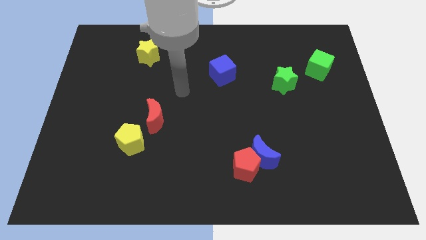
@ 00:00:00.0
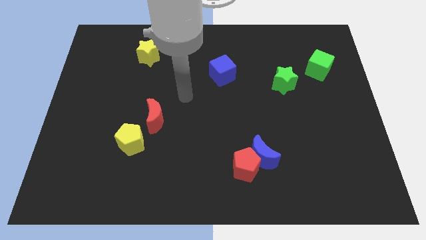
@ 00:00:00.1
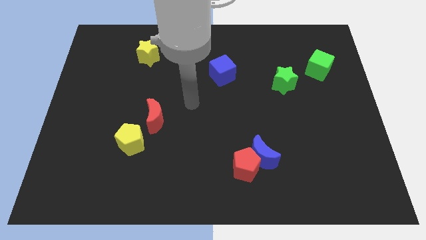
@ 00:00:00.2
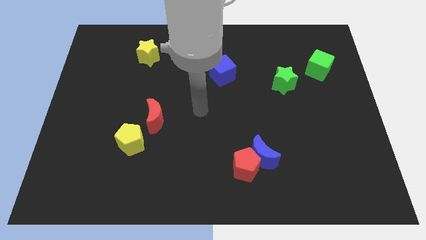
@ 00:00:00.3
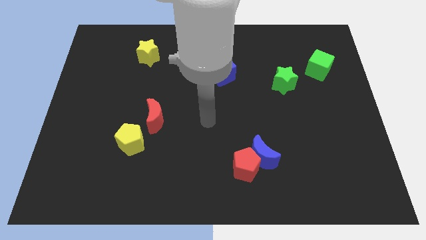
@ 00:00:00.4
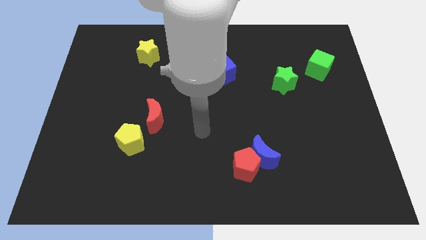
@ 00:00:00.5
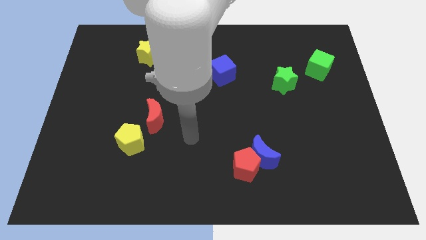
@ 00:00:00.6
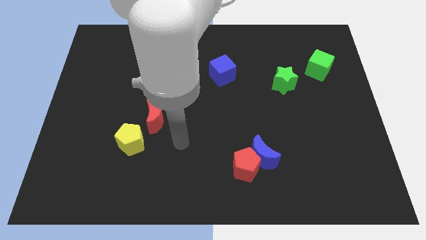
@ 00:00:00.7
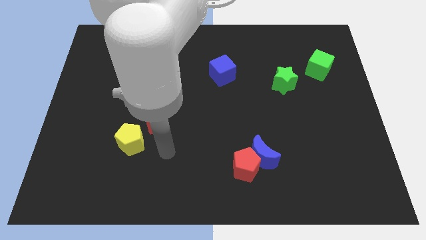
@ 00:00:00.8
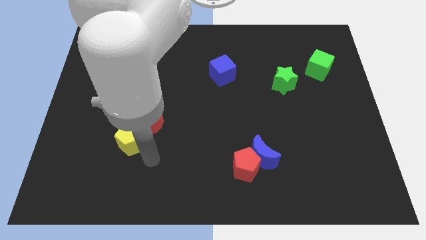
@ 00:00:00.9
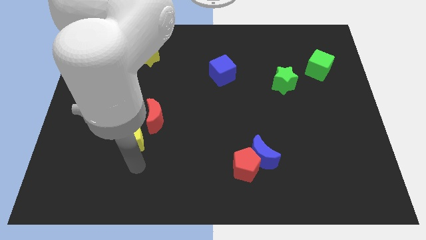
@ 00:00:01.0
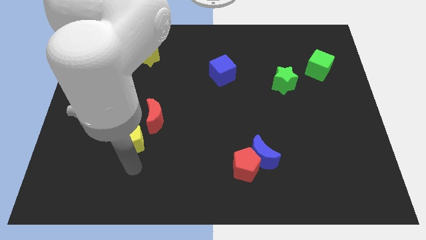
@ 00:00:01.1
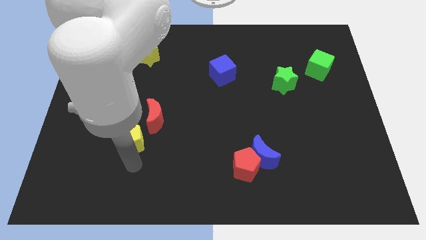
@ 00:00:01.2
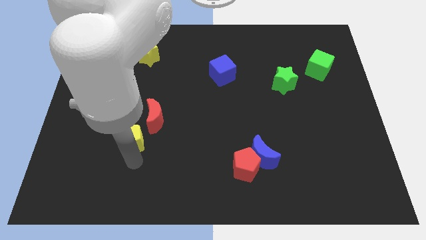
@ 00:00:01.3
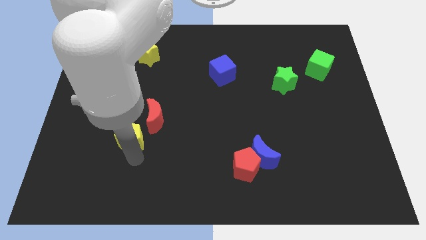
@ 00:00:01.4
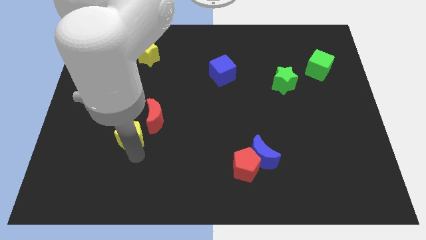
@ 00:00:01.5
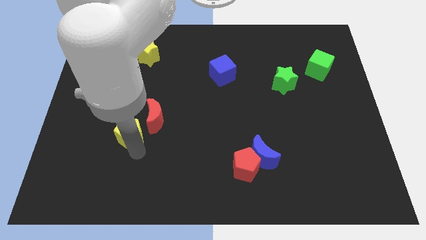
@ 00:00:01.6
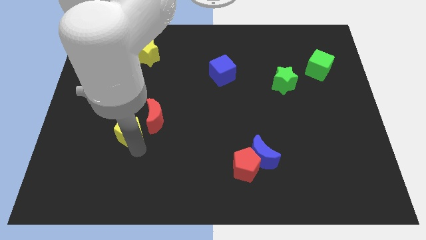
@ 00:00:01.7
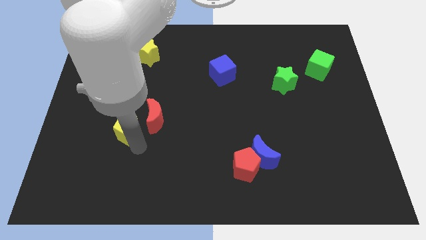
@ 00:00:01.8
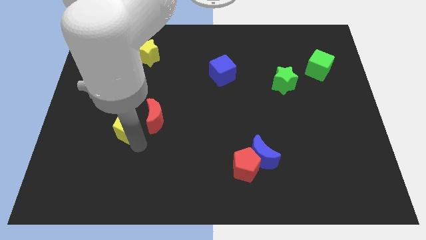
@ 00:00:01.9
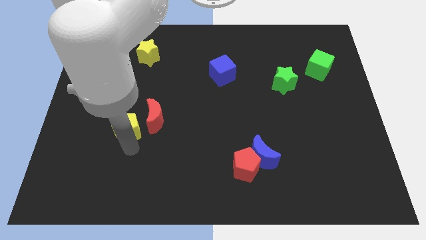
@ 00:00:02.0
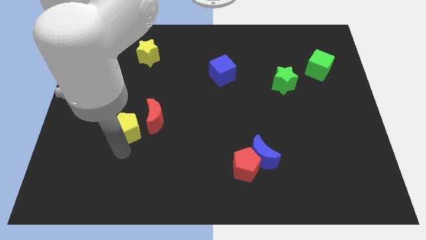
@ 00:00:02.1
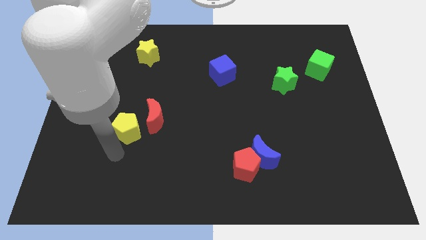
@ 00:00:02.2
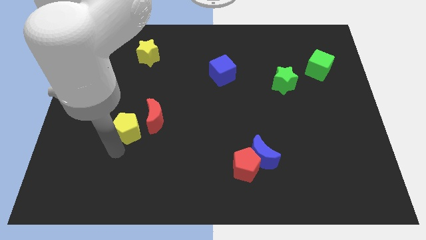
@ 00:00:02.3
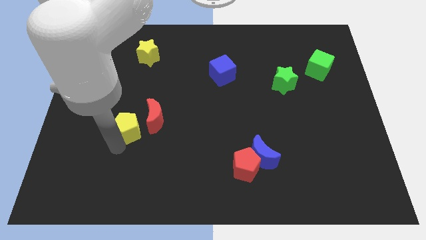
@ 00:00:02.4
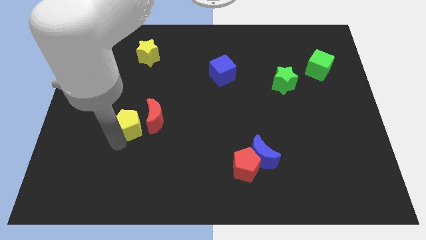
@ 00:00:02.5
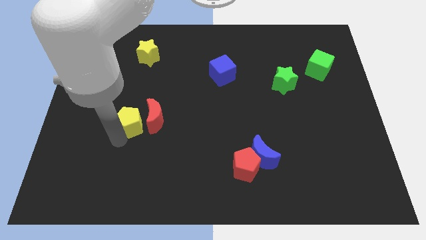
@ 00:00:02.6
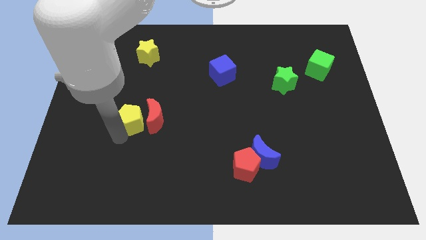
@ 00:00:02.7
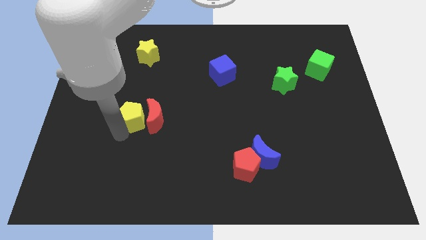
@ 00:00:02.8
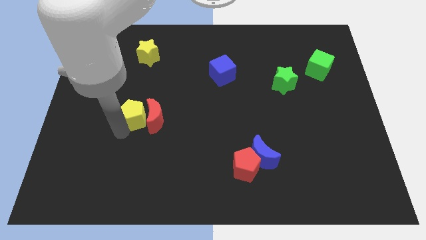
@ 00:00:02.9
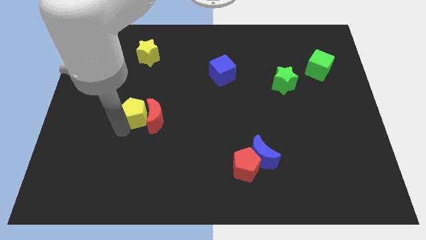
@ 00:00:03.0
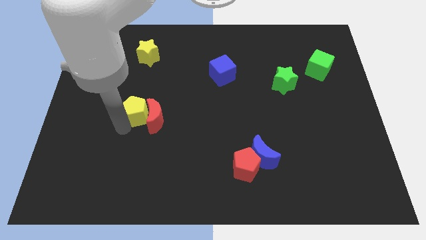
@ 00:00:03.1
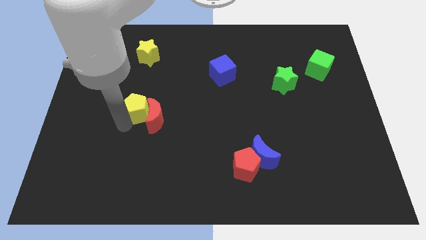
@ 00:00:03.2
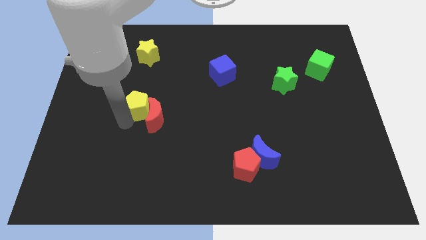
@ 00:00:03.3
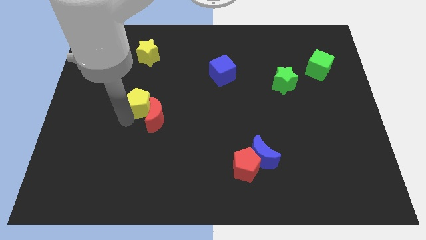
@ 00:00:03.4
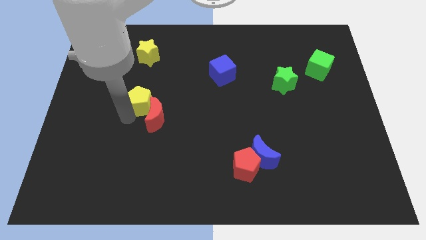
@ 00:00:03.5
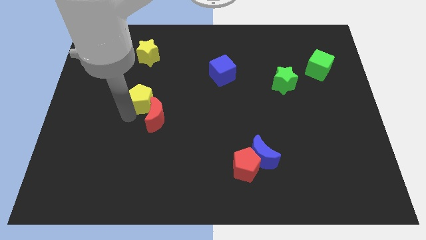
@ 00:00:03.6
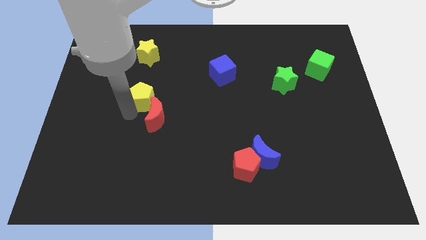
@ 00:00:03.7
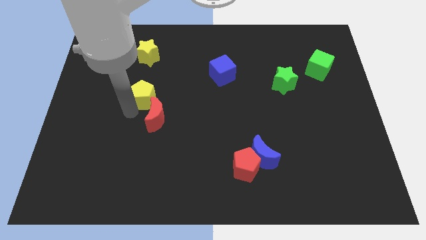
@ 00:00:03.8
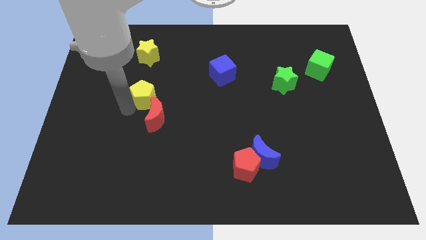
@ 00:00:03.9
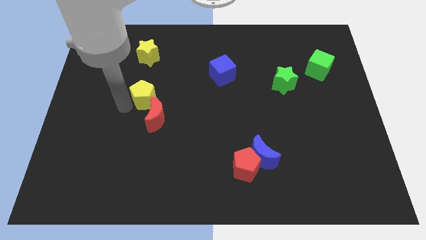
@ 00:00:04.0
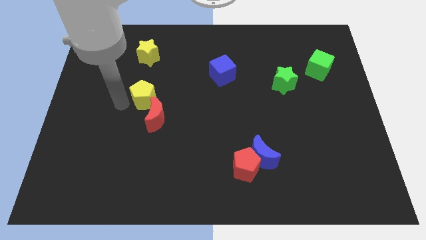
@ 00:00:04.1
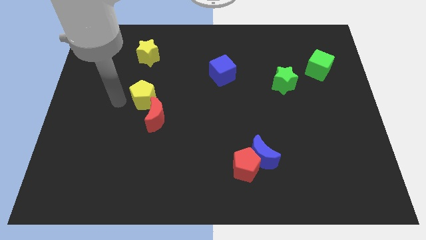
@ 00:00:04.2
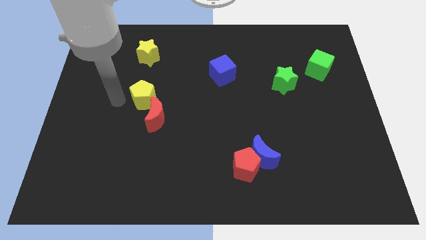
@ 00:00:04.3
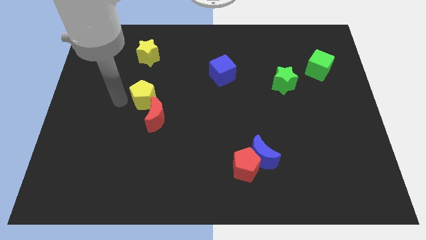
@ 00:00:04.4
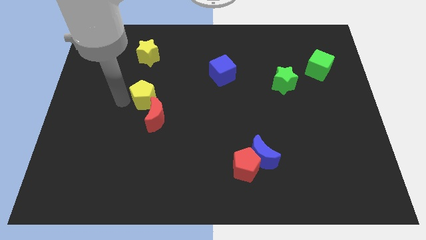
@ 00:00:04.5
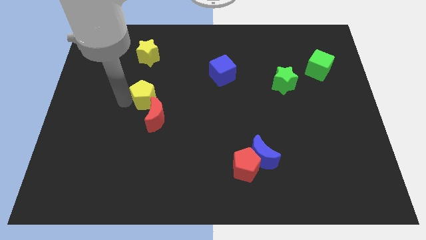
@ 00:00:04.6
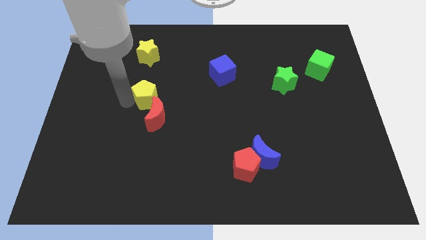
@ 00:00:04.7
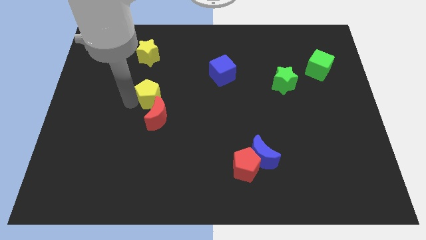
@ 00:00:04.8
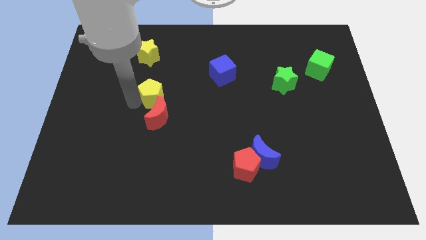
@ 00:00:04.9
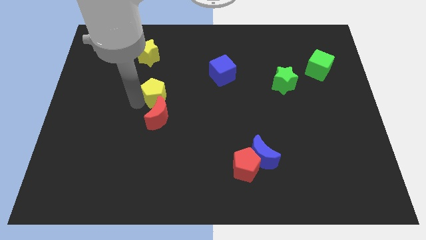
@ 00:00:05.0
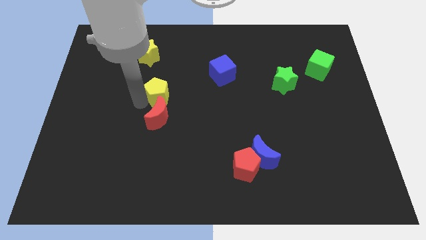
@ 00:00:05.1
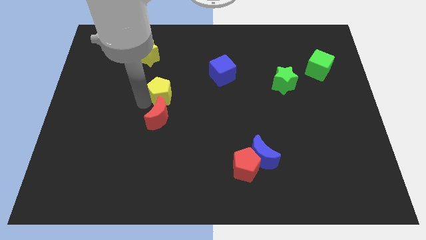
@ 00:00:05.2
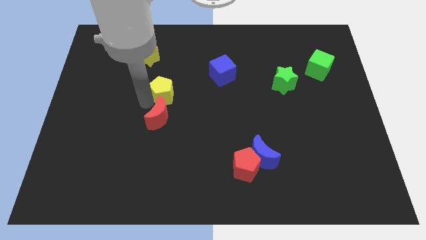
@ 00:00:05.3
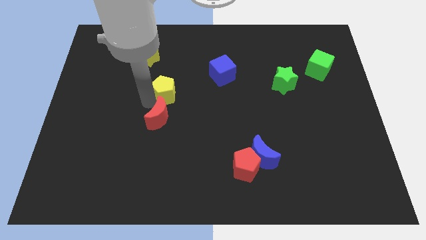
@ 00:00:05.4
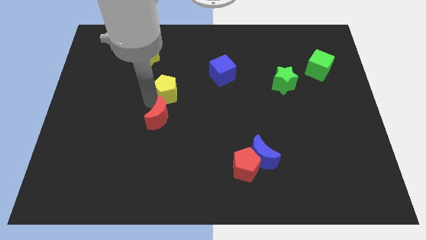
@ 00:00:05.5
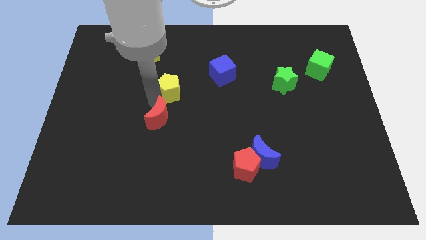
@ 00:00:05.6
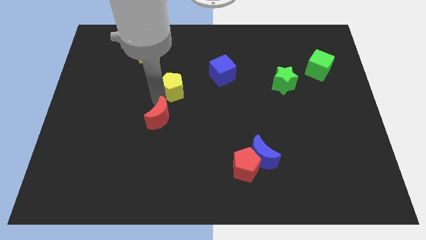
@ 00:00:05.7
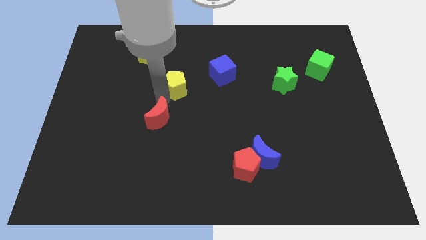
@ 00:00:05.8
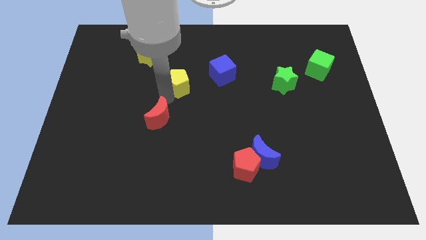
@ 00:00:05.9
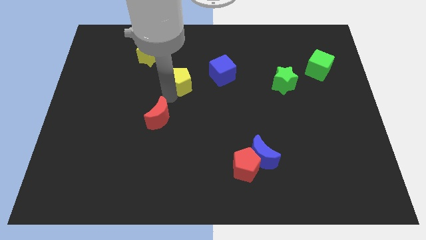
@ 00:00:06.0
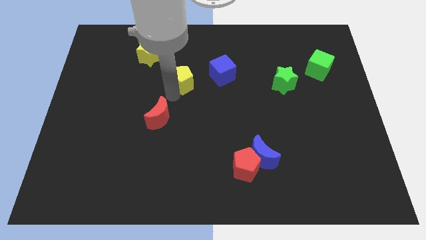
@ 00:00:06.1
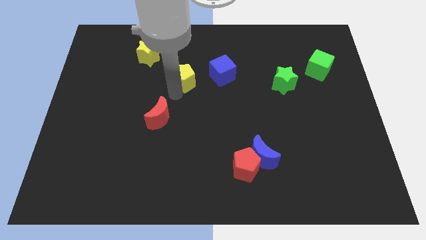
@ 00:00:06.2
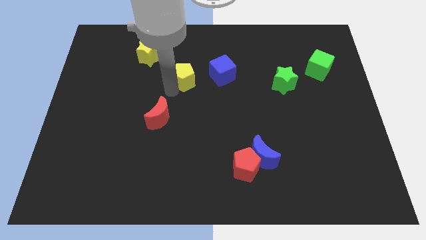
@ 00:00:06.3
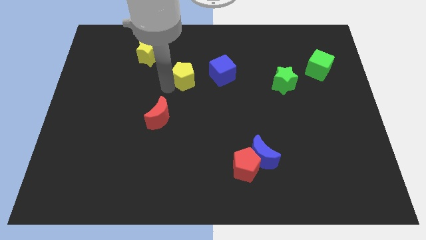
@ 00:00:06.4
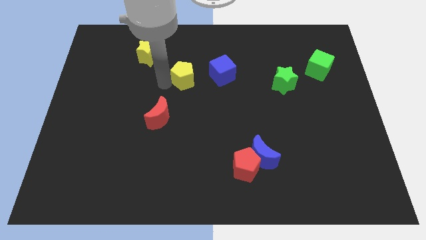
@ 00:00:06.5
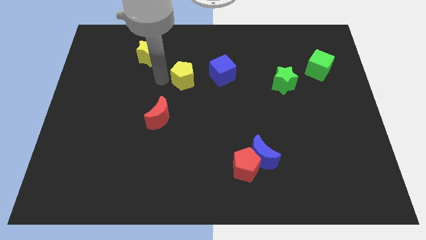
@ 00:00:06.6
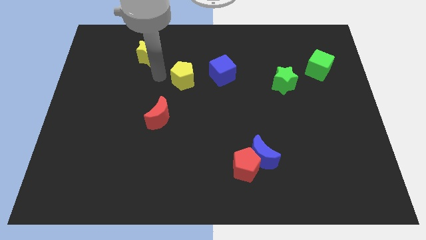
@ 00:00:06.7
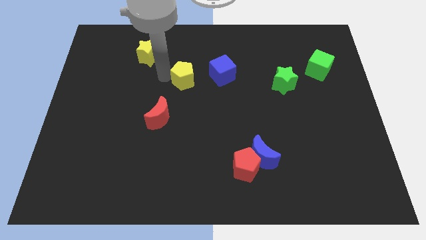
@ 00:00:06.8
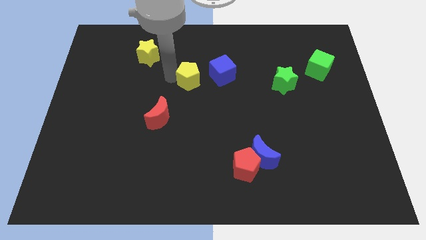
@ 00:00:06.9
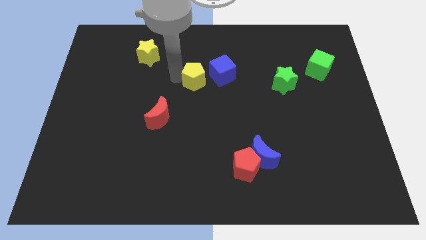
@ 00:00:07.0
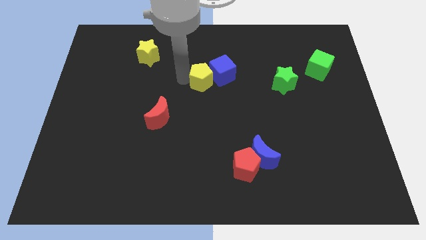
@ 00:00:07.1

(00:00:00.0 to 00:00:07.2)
move the yellow pentagon towards the blue cube

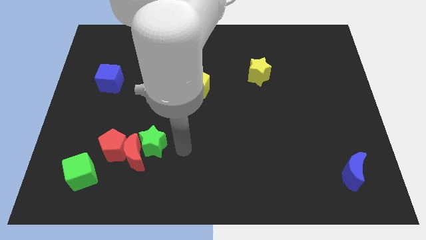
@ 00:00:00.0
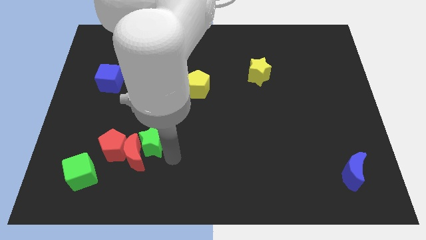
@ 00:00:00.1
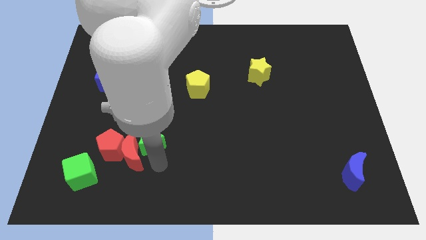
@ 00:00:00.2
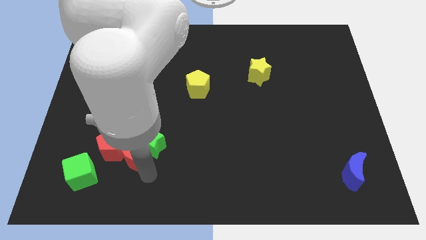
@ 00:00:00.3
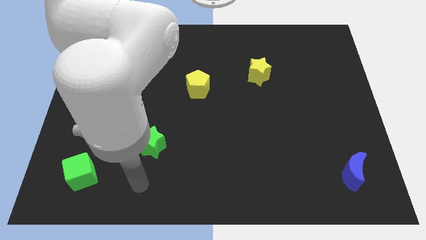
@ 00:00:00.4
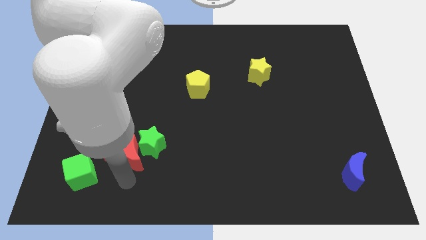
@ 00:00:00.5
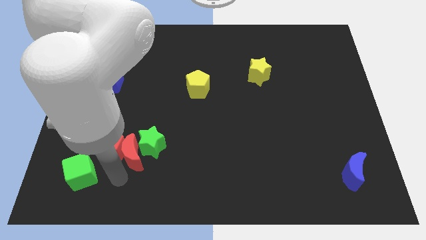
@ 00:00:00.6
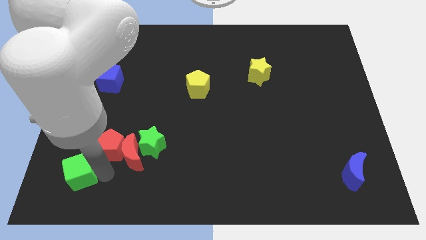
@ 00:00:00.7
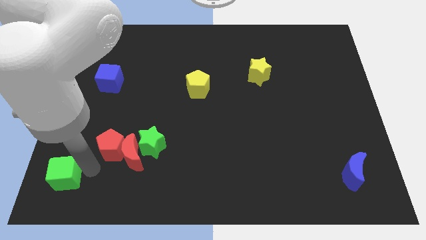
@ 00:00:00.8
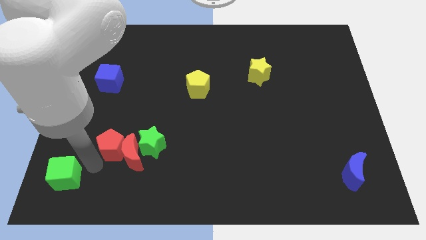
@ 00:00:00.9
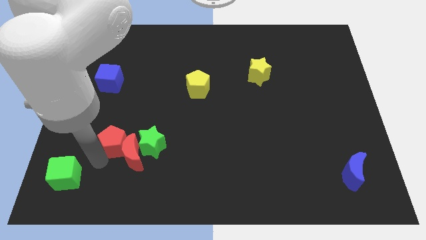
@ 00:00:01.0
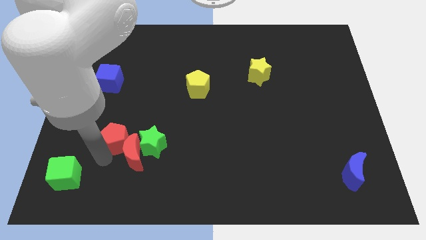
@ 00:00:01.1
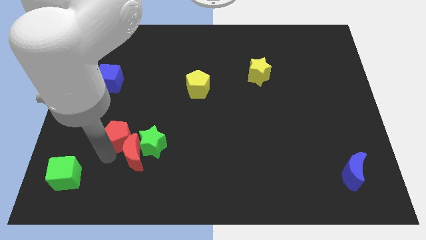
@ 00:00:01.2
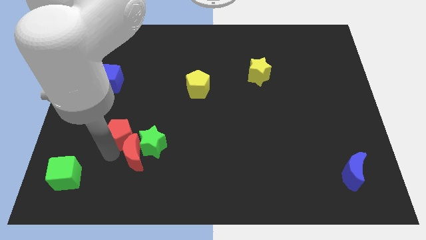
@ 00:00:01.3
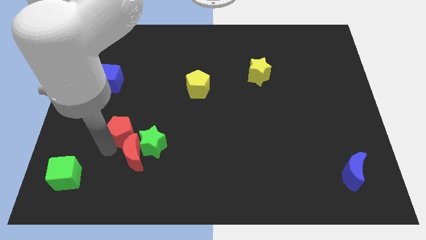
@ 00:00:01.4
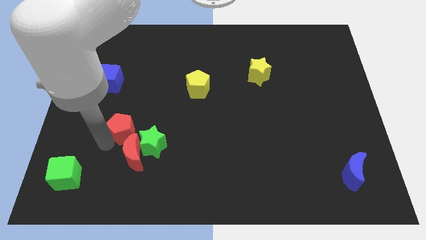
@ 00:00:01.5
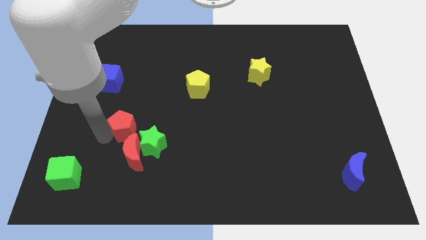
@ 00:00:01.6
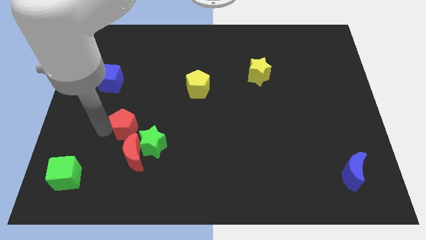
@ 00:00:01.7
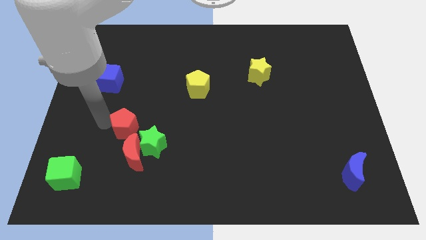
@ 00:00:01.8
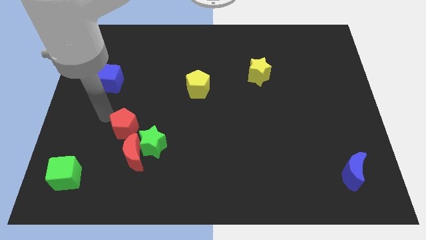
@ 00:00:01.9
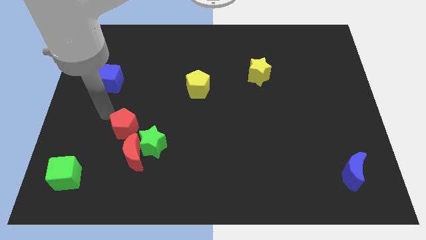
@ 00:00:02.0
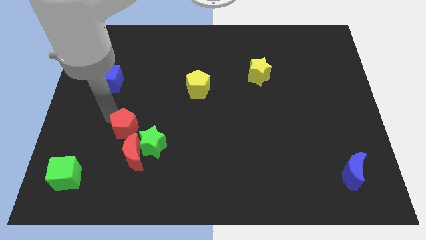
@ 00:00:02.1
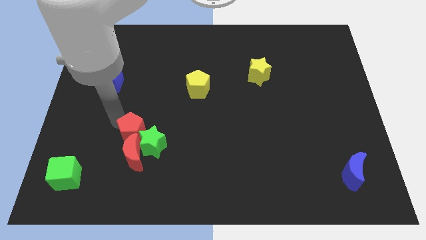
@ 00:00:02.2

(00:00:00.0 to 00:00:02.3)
move the red pentagon close to the green star
